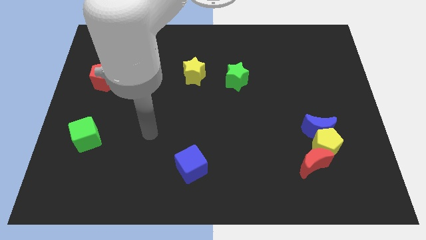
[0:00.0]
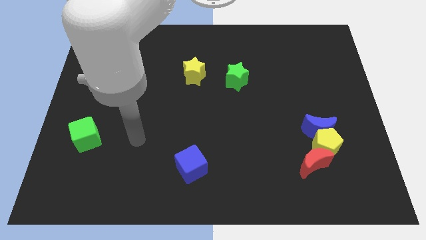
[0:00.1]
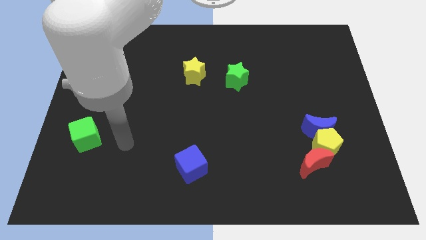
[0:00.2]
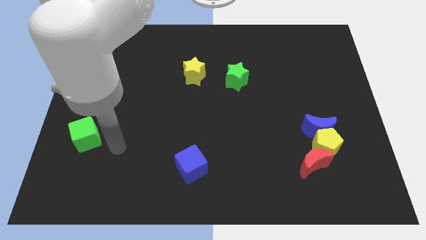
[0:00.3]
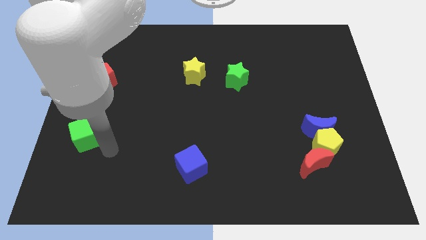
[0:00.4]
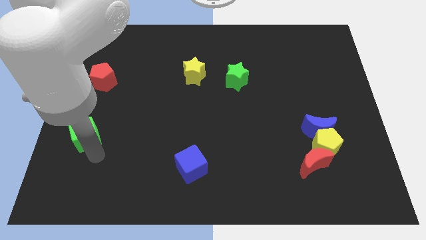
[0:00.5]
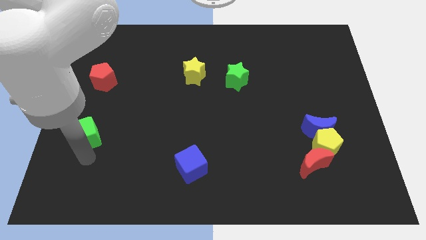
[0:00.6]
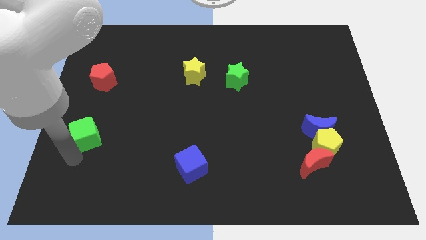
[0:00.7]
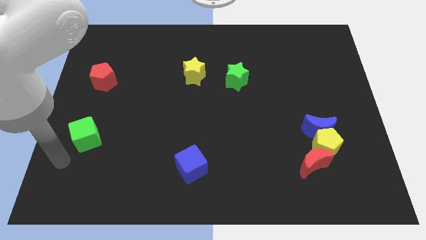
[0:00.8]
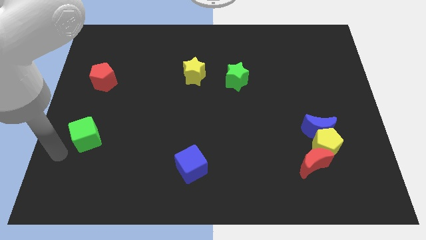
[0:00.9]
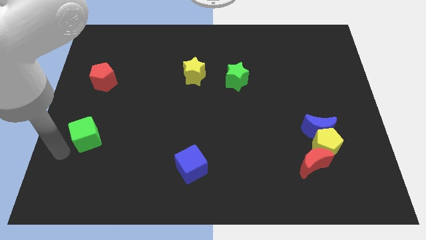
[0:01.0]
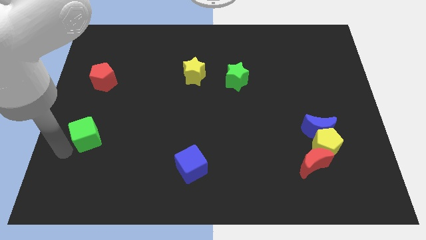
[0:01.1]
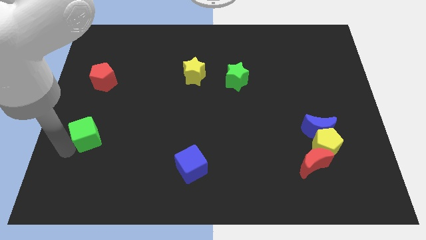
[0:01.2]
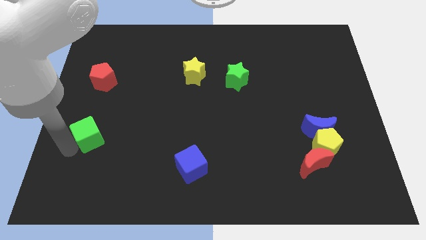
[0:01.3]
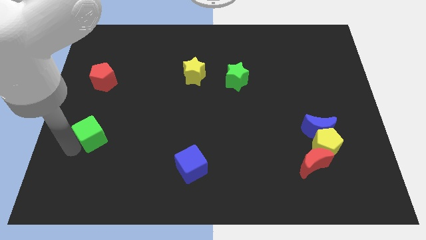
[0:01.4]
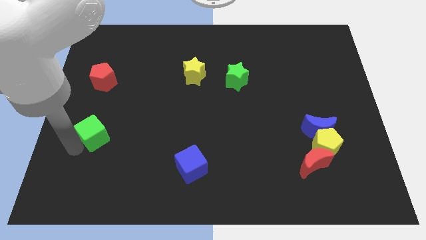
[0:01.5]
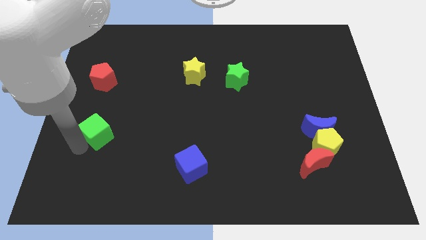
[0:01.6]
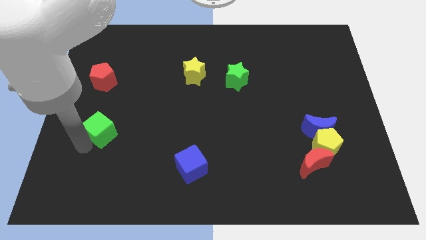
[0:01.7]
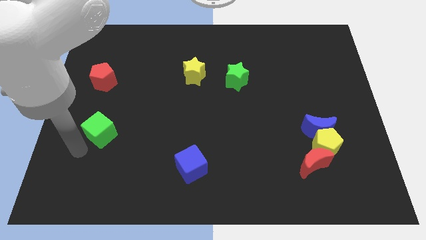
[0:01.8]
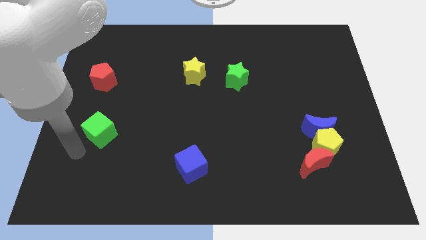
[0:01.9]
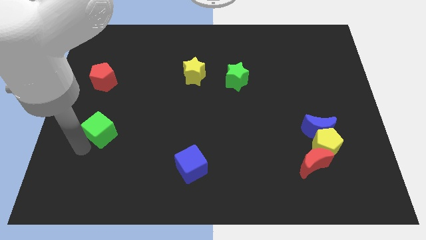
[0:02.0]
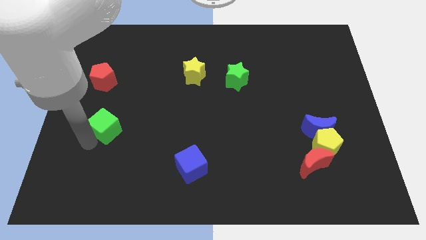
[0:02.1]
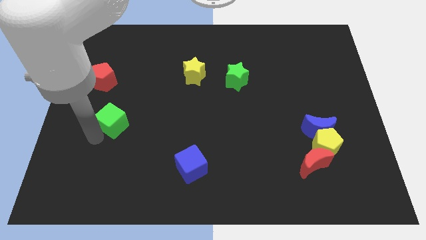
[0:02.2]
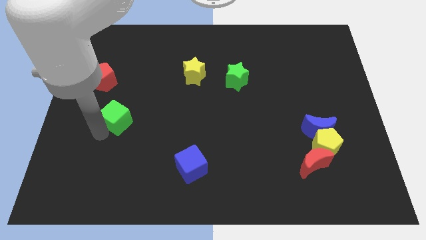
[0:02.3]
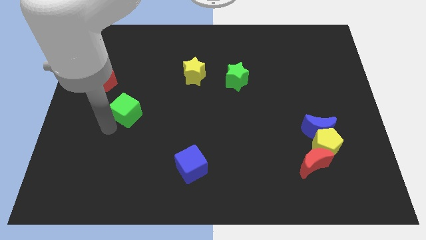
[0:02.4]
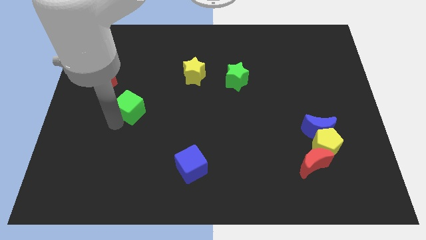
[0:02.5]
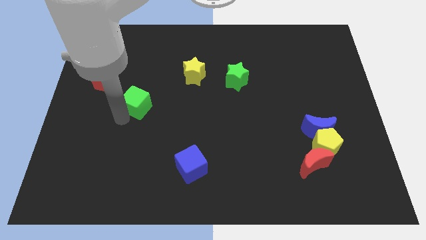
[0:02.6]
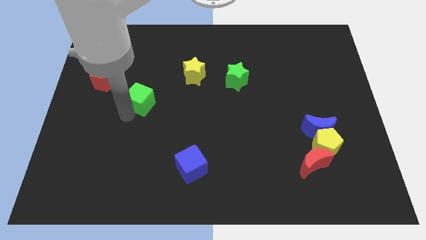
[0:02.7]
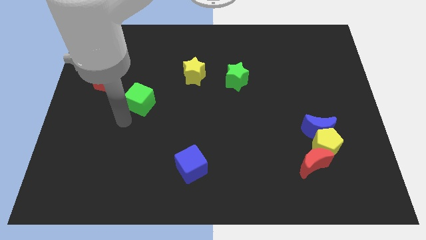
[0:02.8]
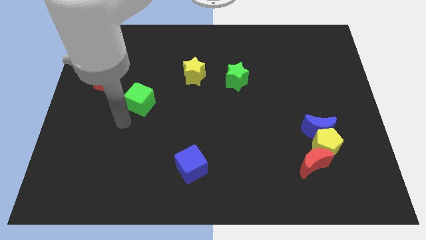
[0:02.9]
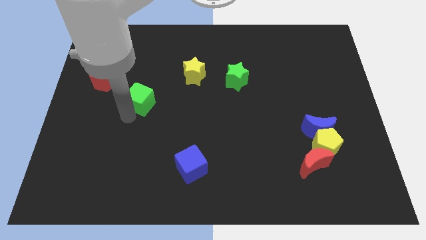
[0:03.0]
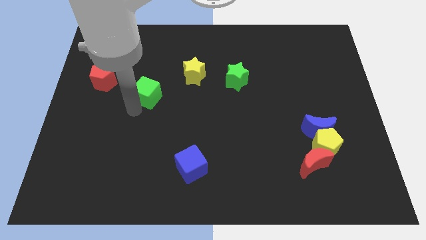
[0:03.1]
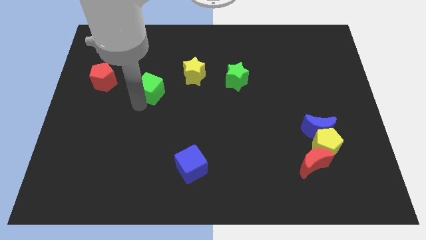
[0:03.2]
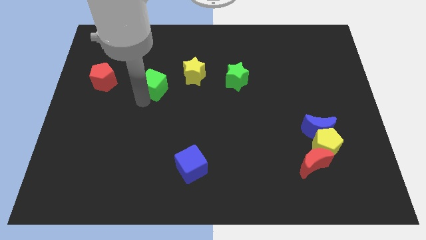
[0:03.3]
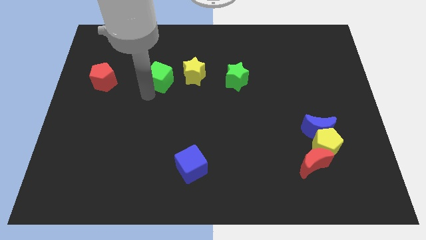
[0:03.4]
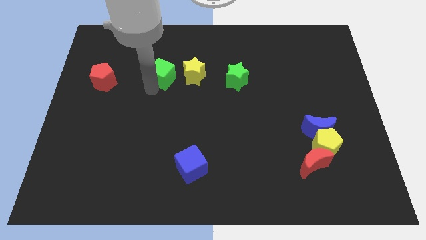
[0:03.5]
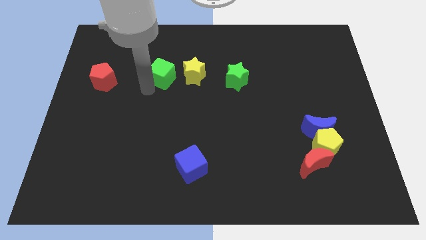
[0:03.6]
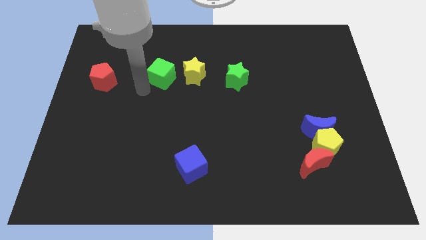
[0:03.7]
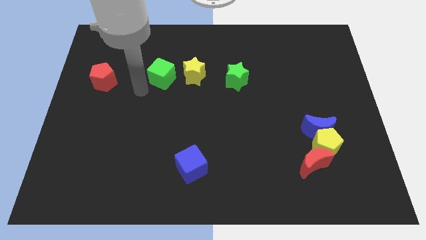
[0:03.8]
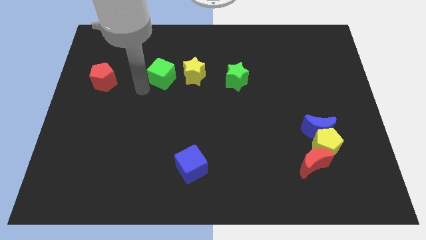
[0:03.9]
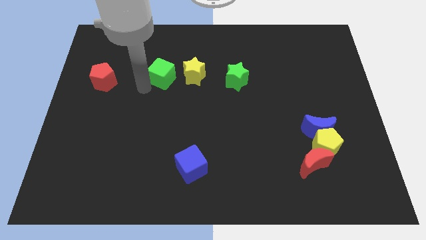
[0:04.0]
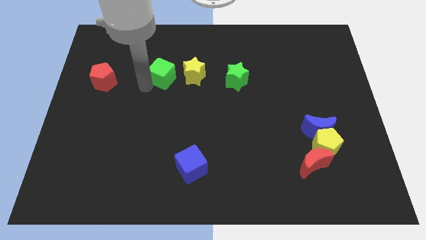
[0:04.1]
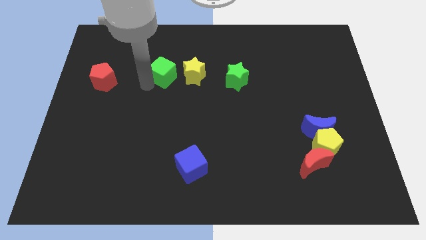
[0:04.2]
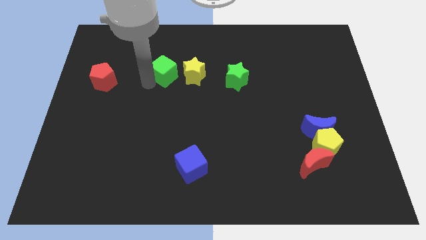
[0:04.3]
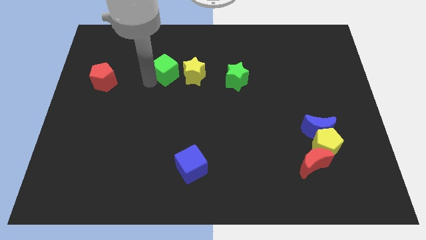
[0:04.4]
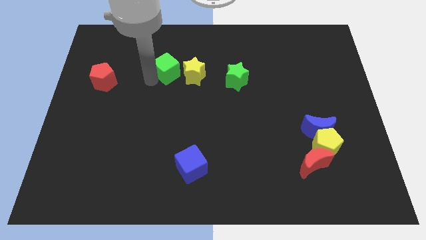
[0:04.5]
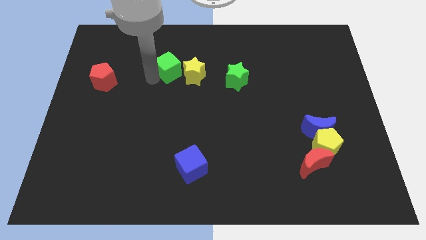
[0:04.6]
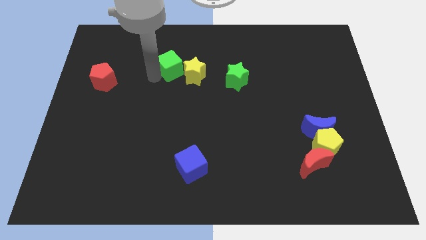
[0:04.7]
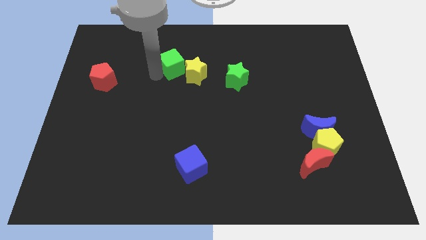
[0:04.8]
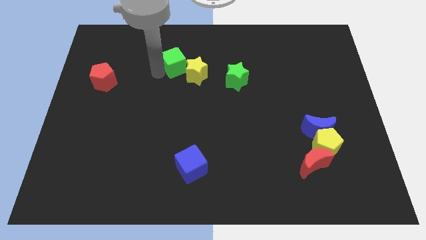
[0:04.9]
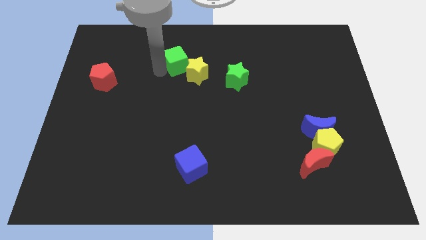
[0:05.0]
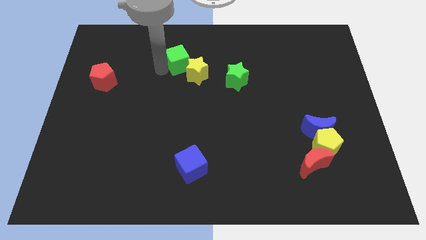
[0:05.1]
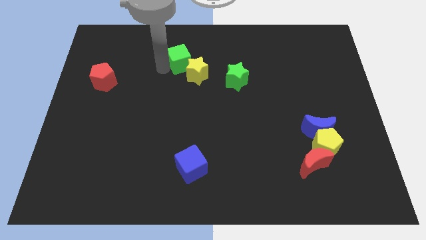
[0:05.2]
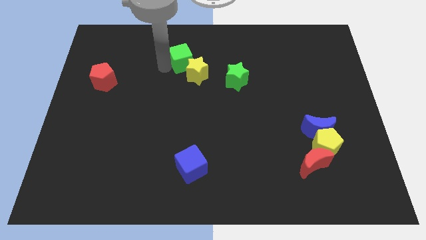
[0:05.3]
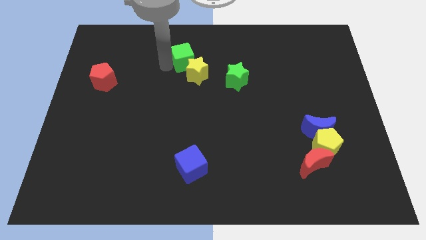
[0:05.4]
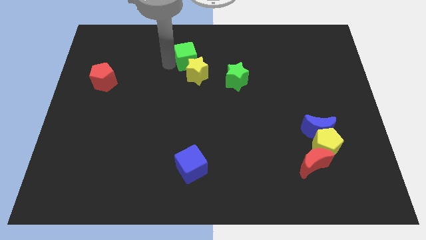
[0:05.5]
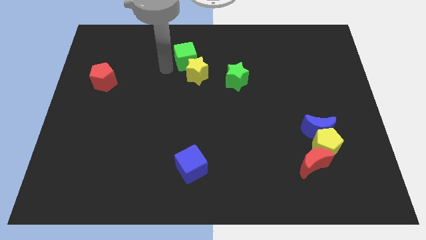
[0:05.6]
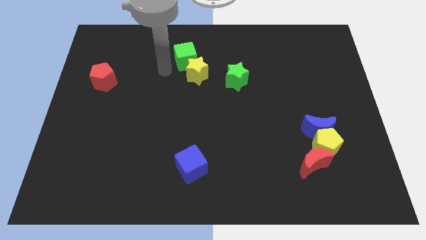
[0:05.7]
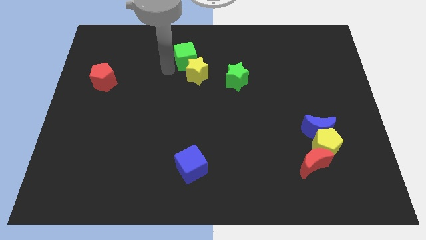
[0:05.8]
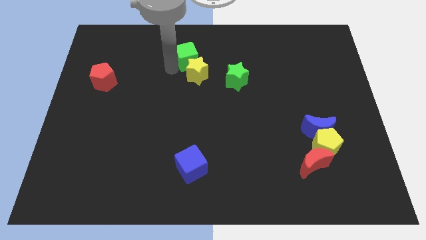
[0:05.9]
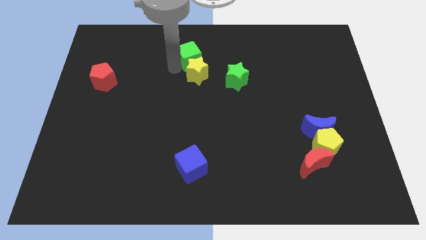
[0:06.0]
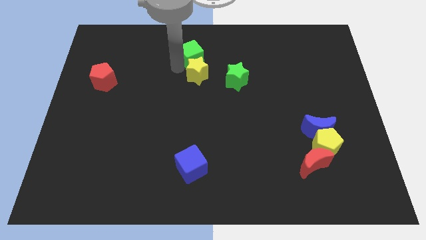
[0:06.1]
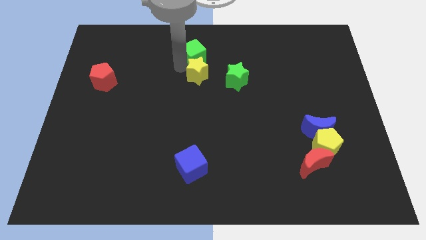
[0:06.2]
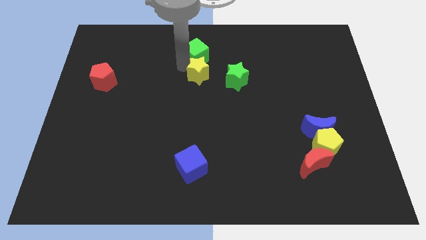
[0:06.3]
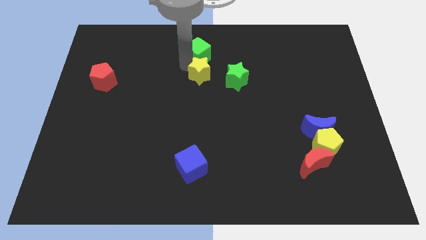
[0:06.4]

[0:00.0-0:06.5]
put the green cube to the top side
